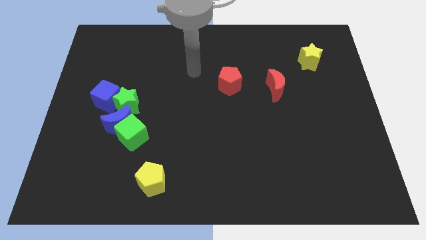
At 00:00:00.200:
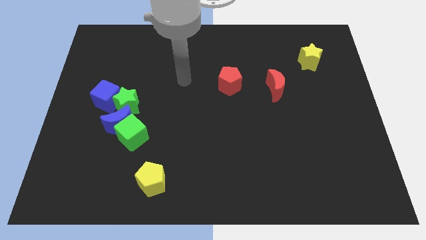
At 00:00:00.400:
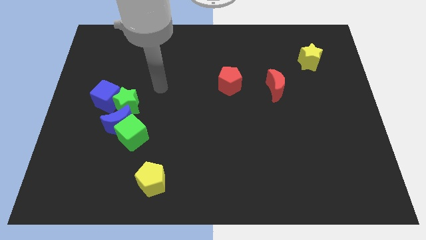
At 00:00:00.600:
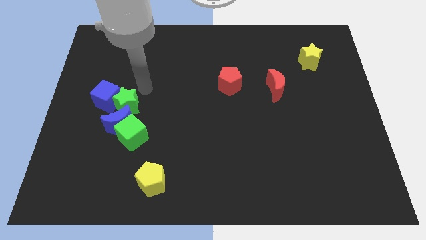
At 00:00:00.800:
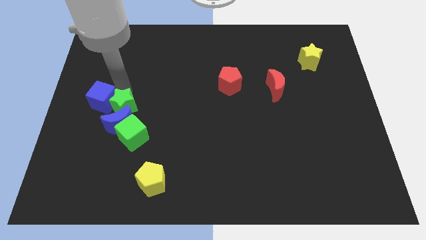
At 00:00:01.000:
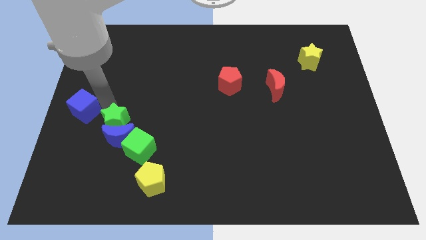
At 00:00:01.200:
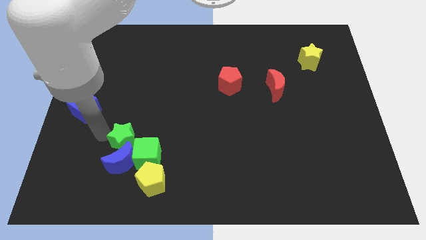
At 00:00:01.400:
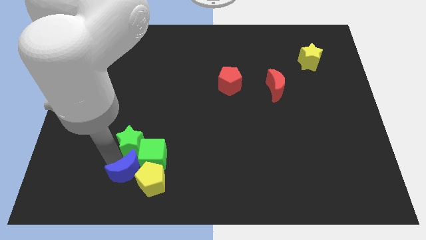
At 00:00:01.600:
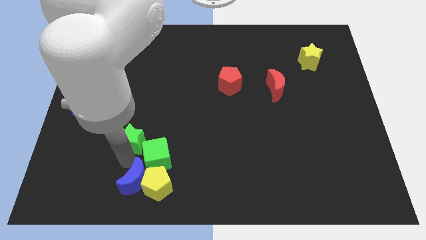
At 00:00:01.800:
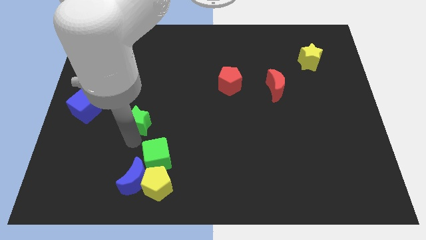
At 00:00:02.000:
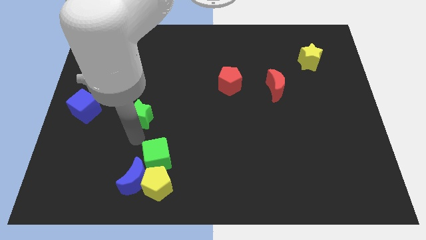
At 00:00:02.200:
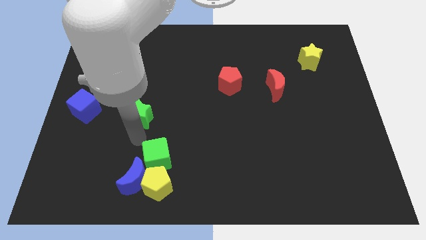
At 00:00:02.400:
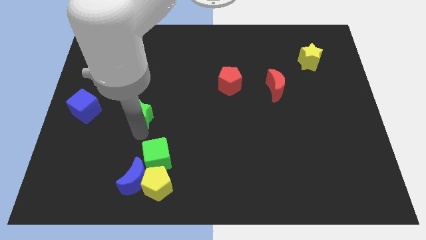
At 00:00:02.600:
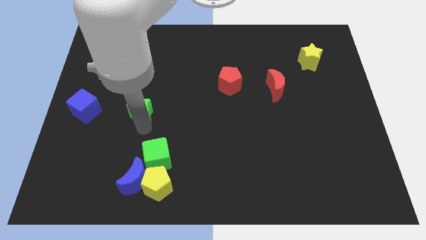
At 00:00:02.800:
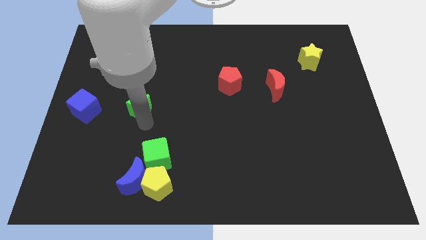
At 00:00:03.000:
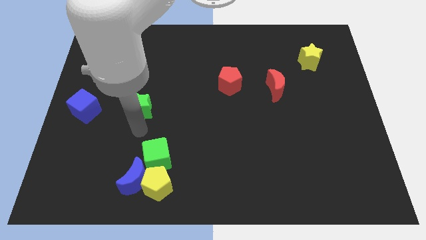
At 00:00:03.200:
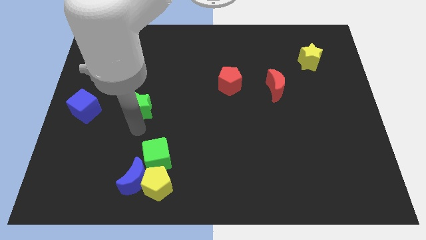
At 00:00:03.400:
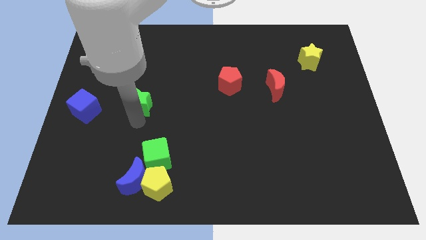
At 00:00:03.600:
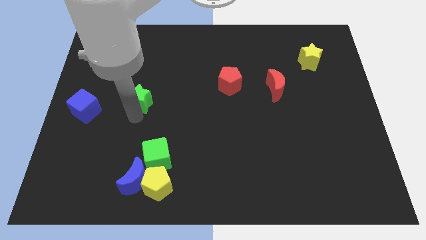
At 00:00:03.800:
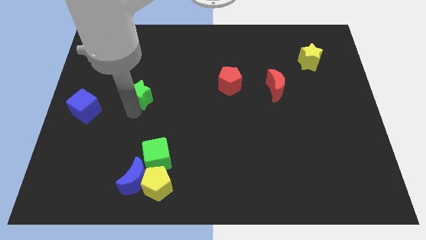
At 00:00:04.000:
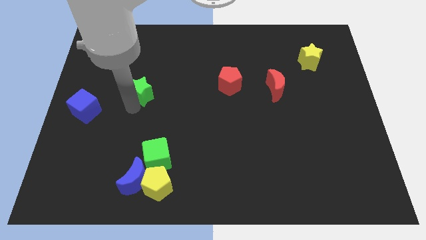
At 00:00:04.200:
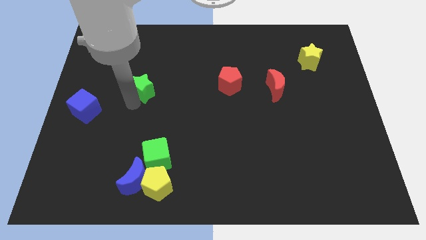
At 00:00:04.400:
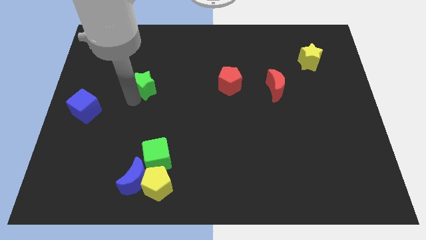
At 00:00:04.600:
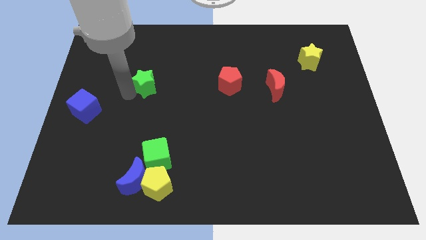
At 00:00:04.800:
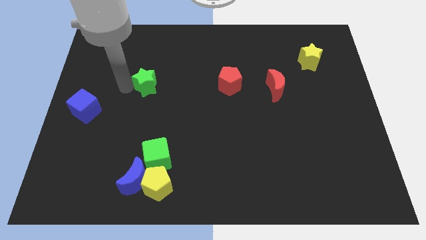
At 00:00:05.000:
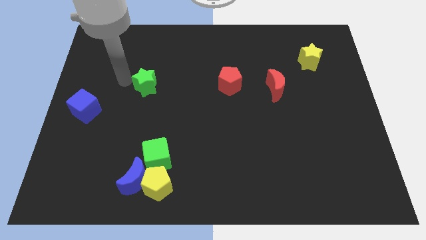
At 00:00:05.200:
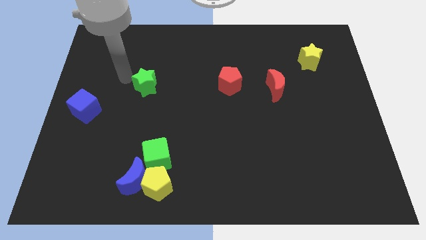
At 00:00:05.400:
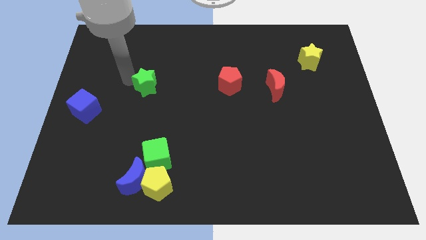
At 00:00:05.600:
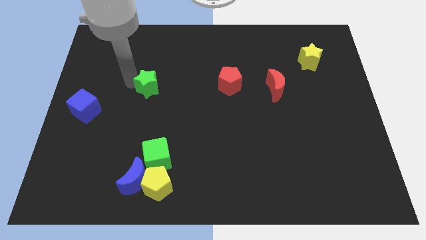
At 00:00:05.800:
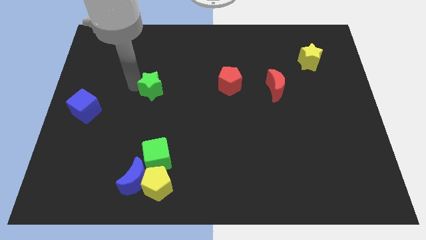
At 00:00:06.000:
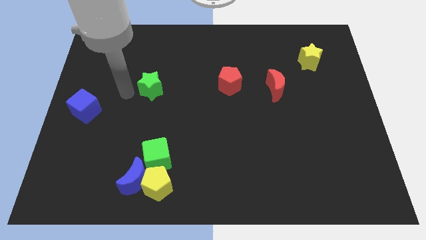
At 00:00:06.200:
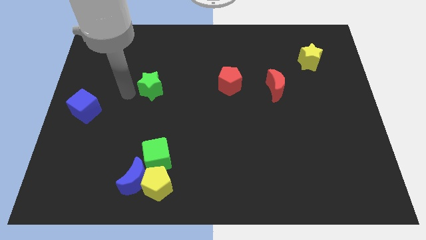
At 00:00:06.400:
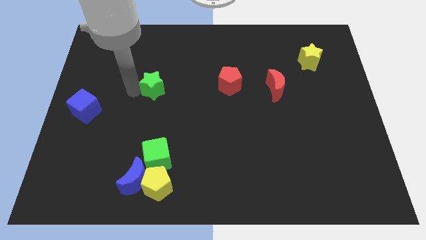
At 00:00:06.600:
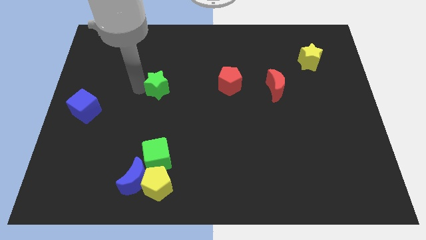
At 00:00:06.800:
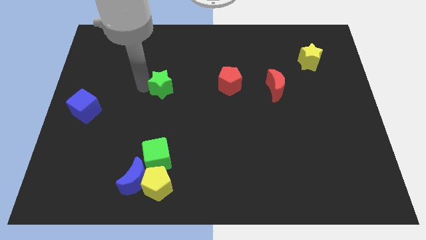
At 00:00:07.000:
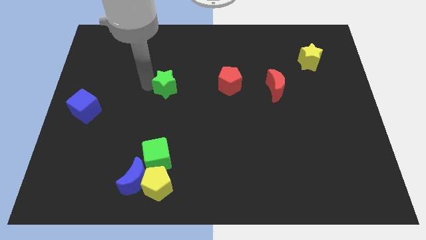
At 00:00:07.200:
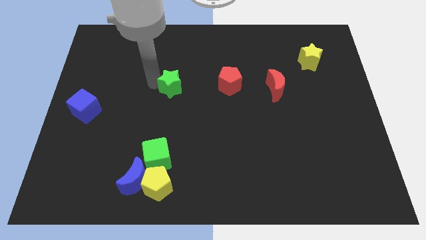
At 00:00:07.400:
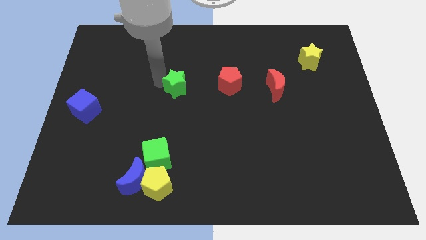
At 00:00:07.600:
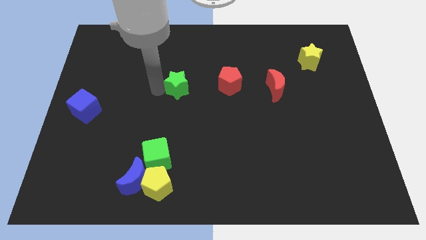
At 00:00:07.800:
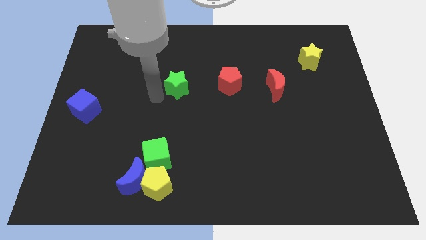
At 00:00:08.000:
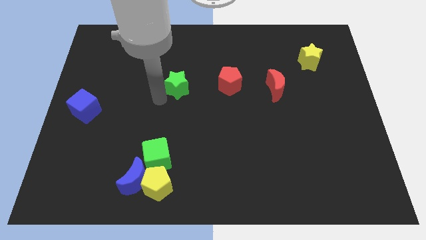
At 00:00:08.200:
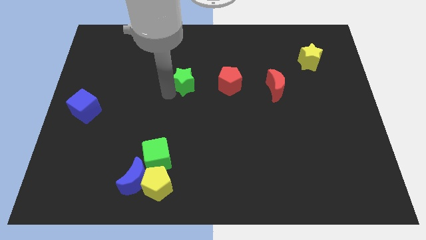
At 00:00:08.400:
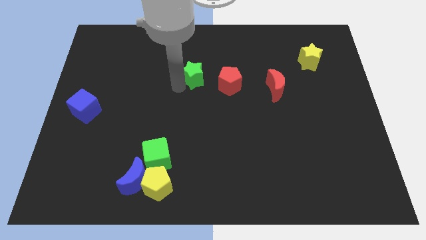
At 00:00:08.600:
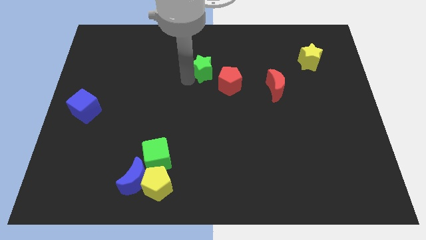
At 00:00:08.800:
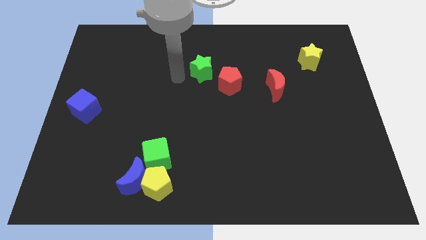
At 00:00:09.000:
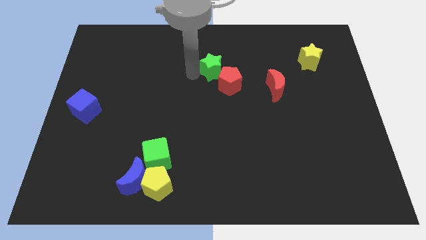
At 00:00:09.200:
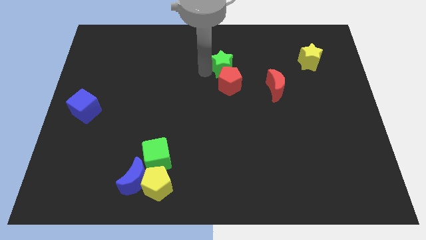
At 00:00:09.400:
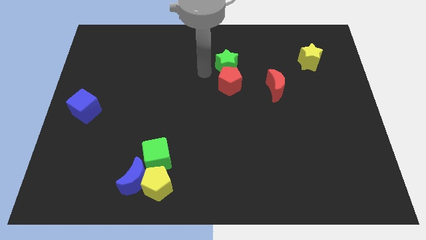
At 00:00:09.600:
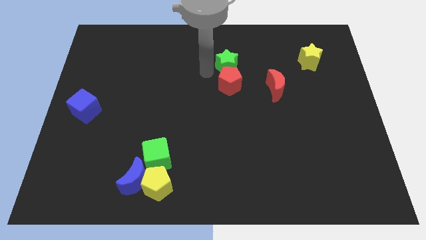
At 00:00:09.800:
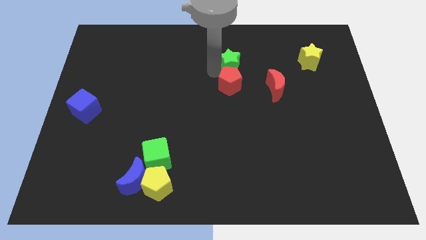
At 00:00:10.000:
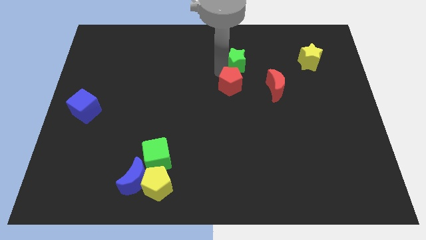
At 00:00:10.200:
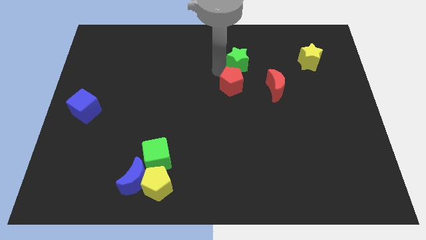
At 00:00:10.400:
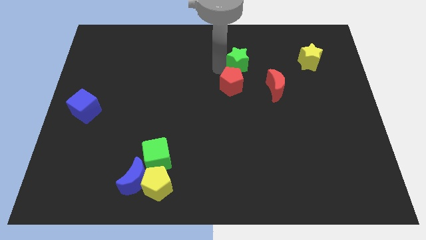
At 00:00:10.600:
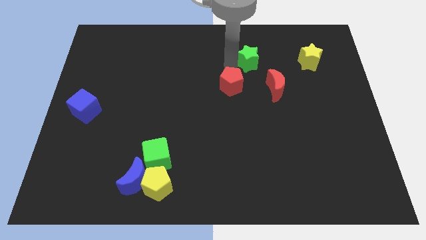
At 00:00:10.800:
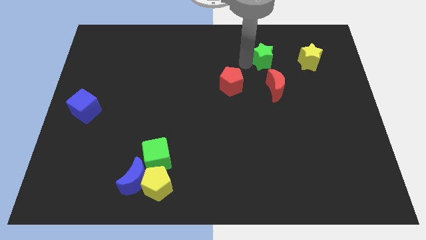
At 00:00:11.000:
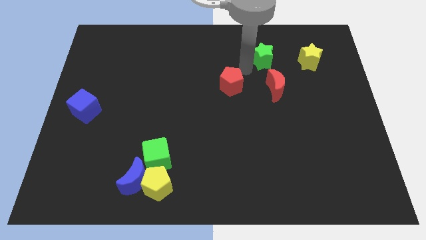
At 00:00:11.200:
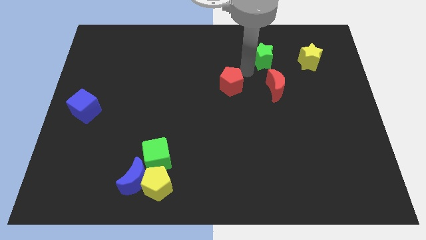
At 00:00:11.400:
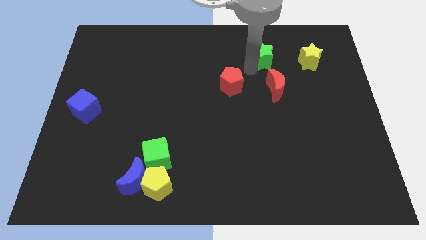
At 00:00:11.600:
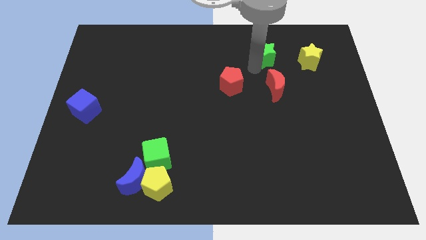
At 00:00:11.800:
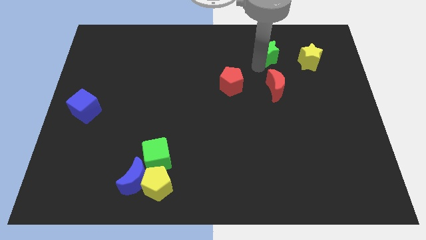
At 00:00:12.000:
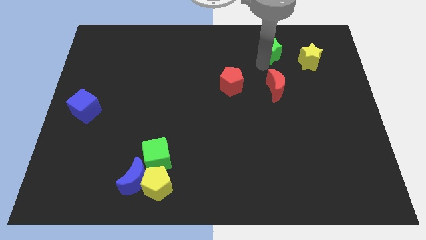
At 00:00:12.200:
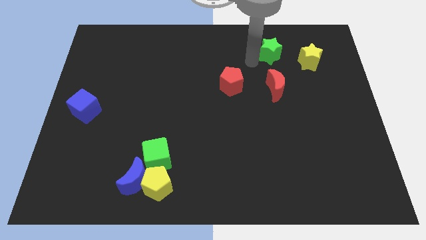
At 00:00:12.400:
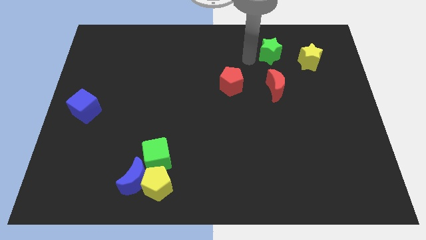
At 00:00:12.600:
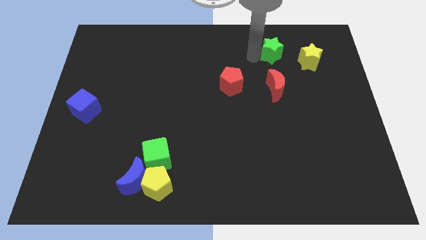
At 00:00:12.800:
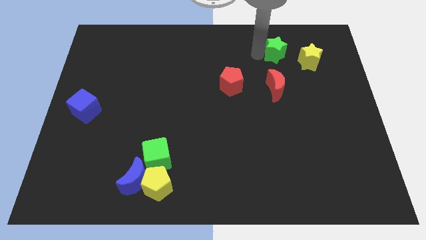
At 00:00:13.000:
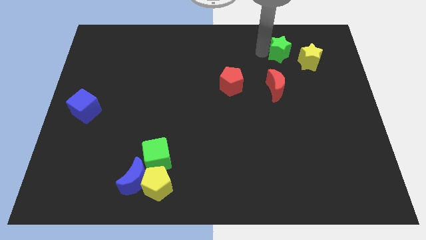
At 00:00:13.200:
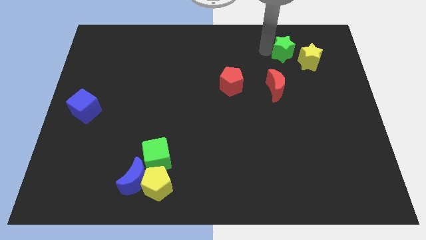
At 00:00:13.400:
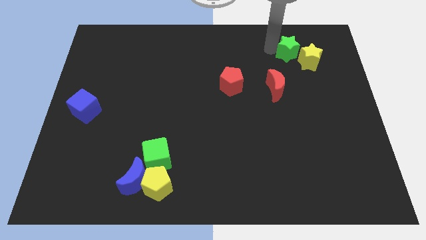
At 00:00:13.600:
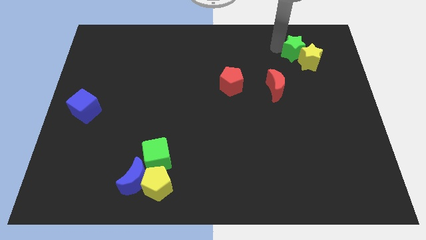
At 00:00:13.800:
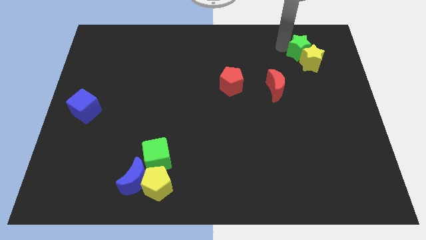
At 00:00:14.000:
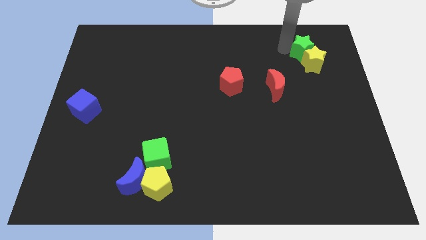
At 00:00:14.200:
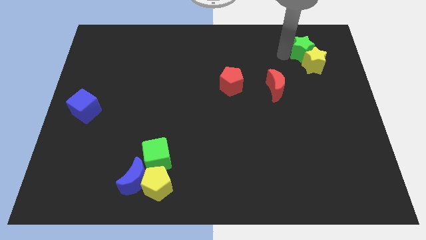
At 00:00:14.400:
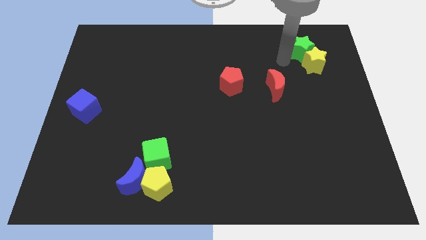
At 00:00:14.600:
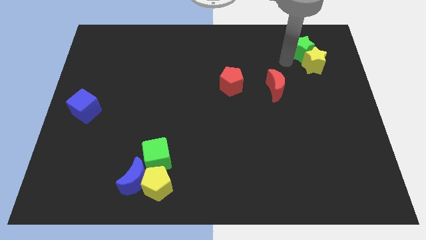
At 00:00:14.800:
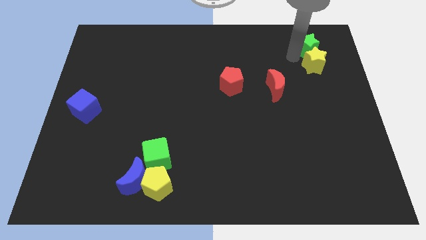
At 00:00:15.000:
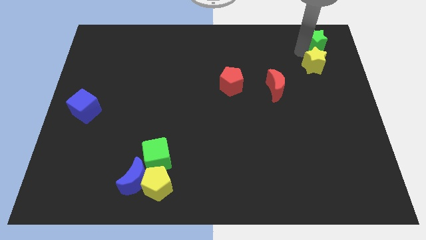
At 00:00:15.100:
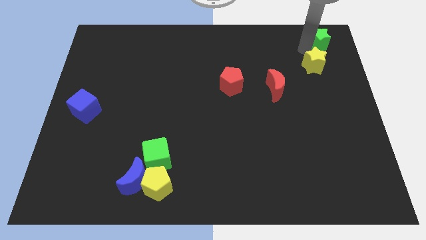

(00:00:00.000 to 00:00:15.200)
move the green star to the upper right corner
